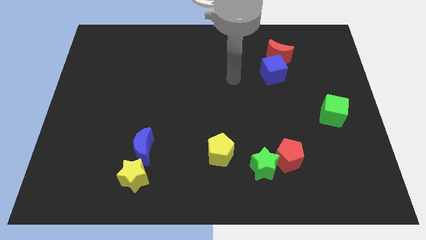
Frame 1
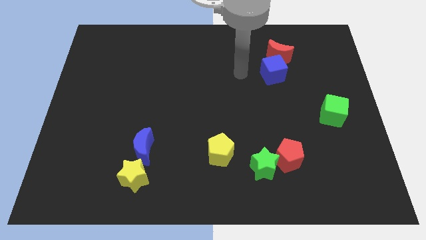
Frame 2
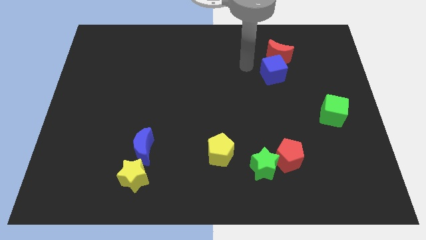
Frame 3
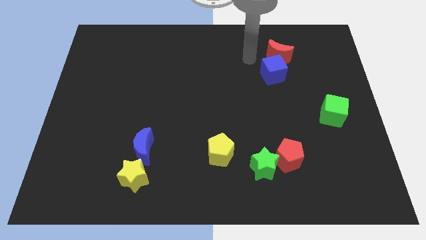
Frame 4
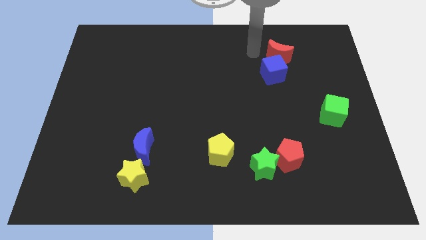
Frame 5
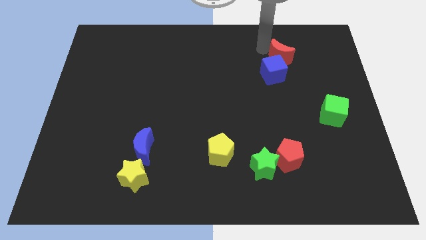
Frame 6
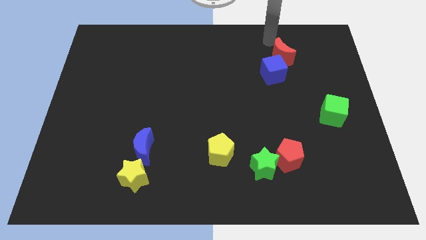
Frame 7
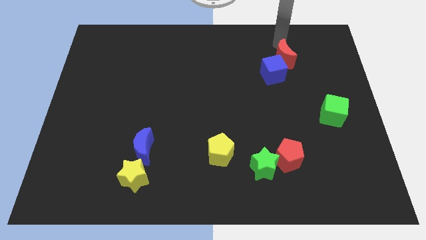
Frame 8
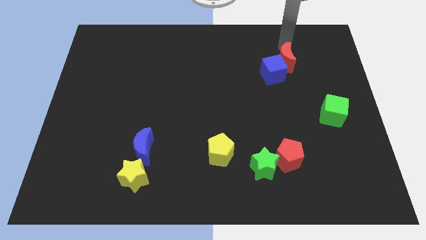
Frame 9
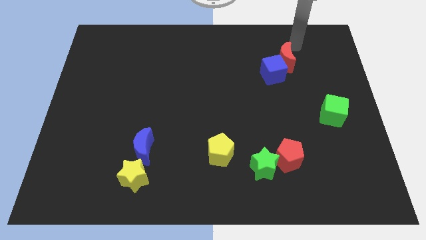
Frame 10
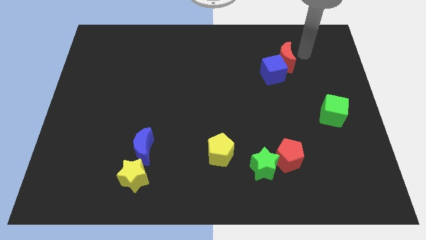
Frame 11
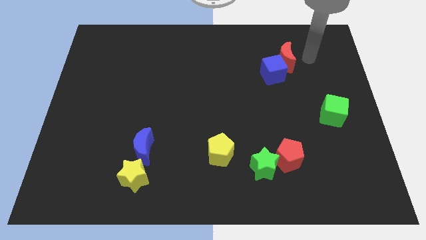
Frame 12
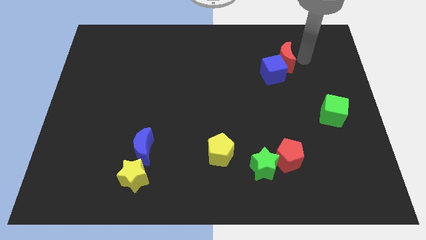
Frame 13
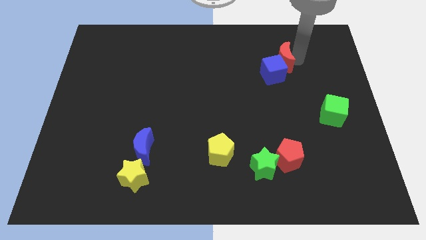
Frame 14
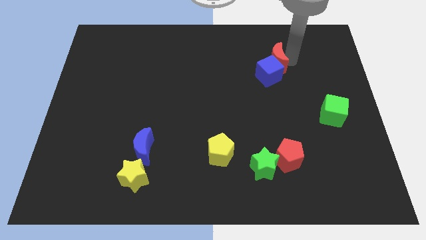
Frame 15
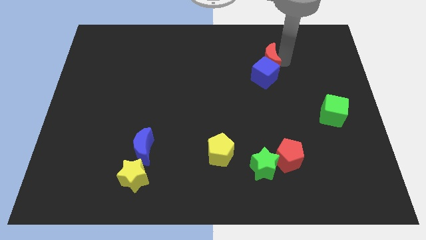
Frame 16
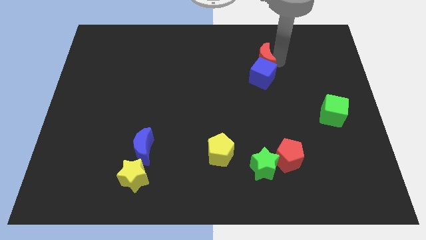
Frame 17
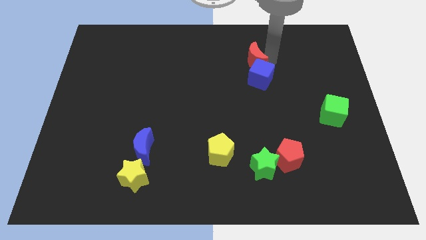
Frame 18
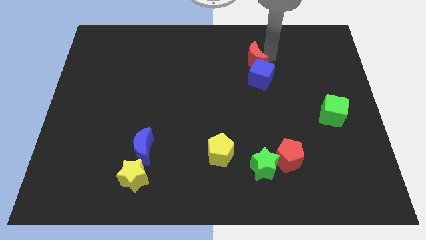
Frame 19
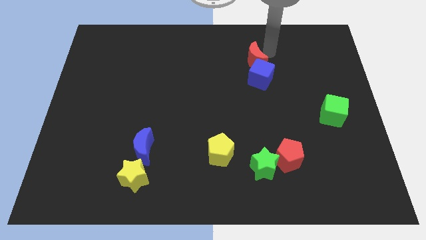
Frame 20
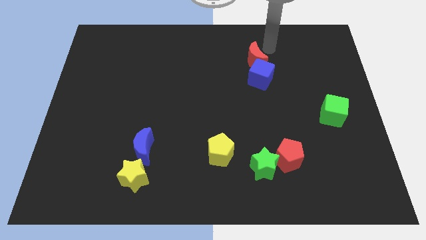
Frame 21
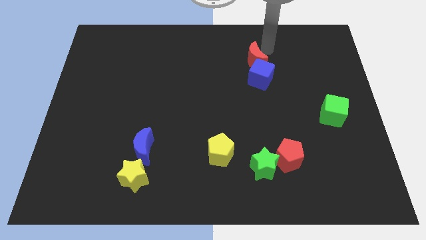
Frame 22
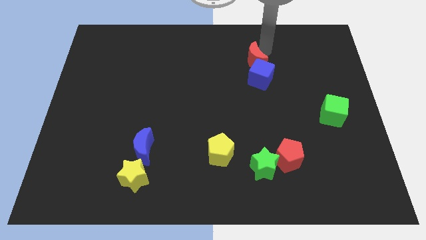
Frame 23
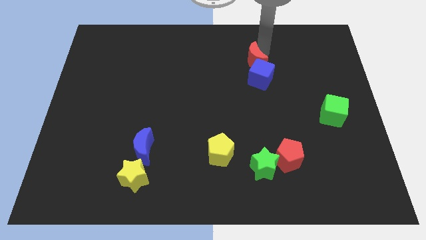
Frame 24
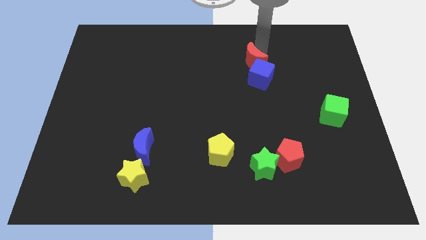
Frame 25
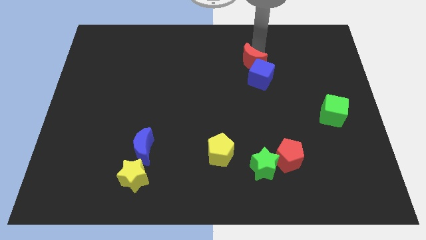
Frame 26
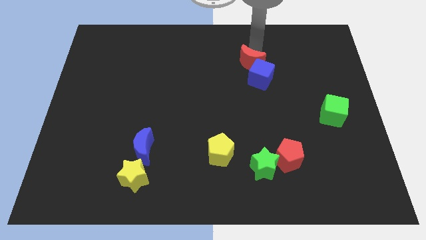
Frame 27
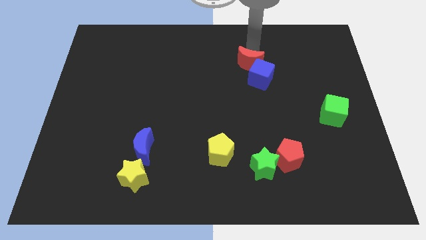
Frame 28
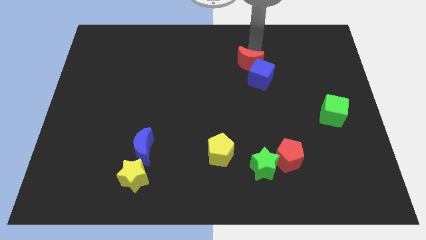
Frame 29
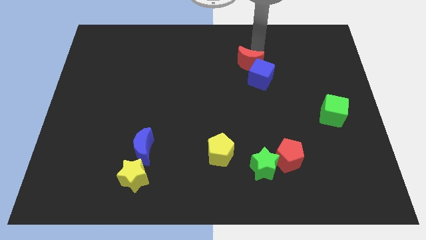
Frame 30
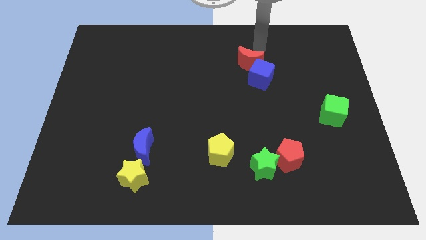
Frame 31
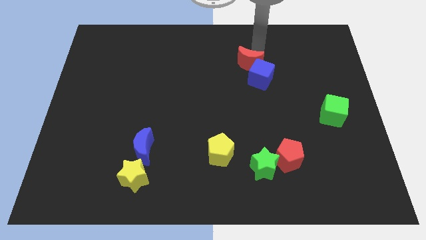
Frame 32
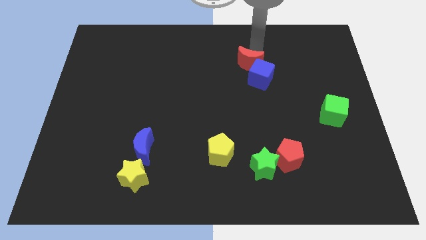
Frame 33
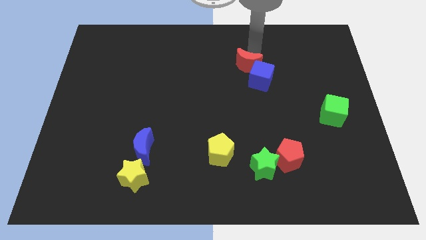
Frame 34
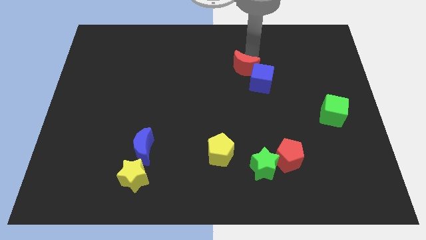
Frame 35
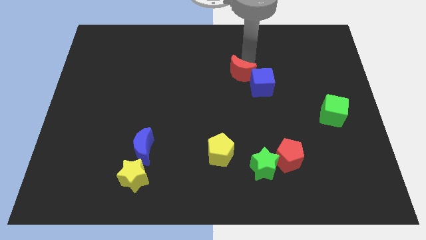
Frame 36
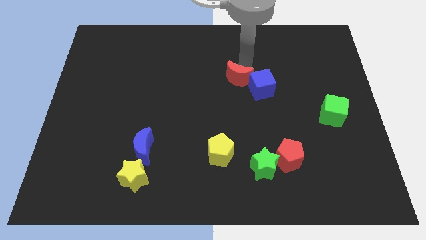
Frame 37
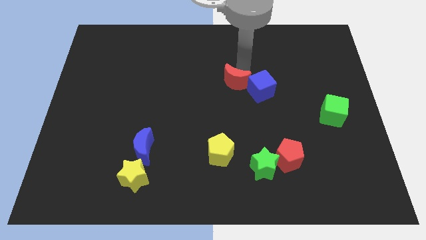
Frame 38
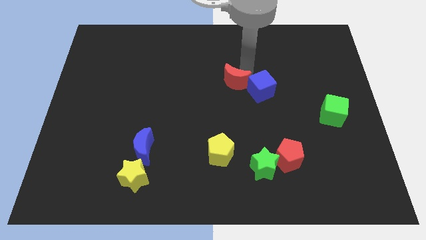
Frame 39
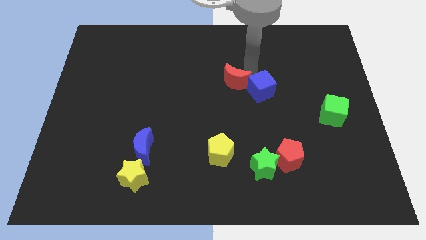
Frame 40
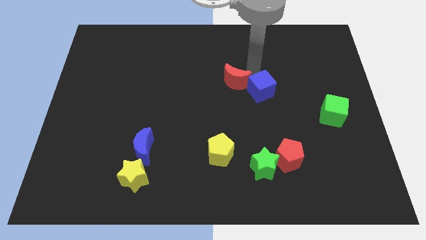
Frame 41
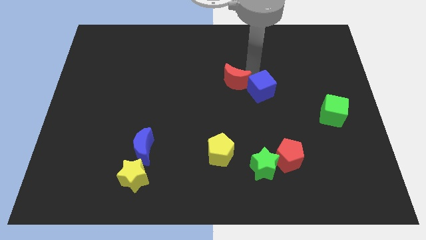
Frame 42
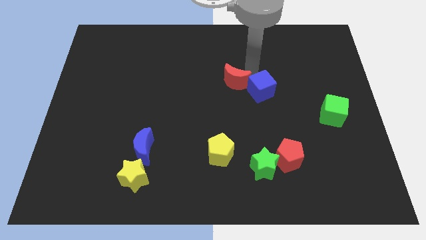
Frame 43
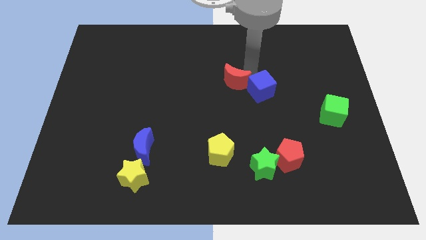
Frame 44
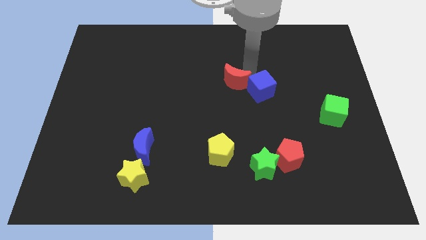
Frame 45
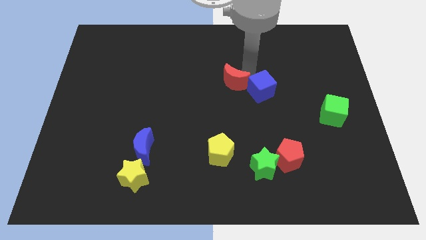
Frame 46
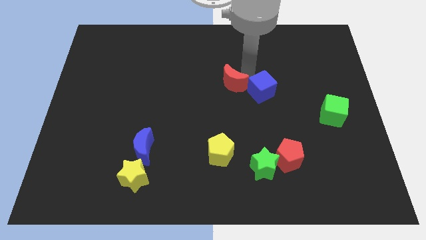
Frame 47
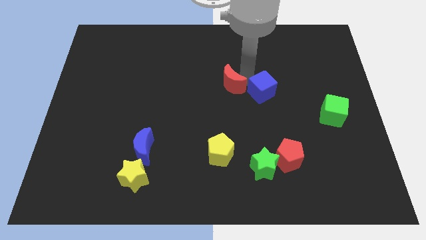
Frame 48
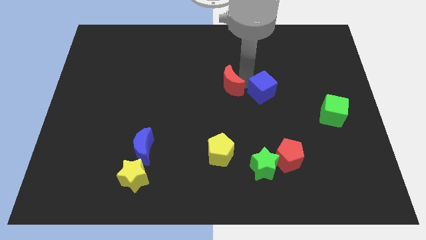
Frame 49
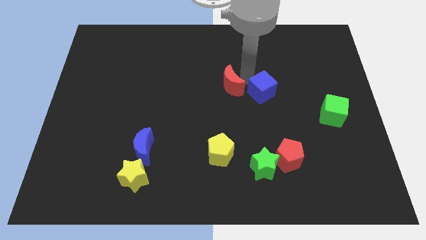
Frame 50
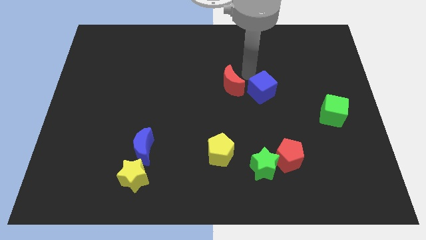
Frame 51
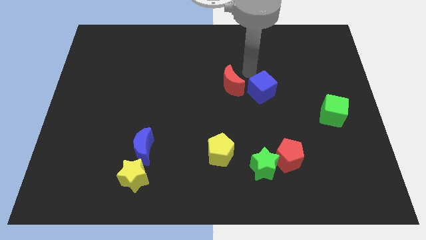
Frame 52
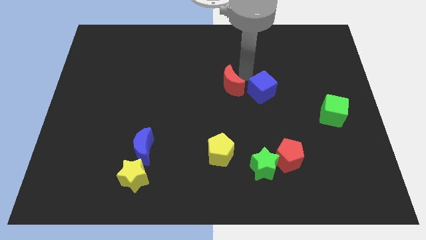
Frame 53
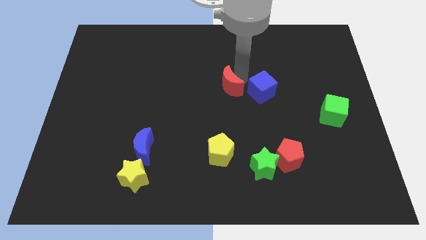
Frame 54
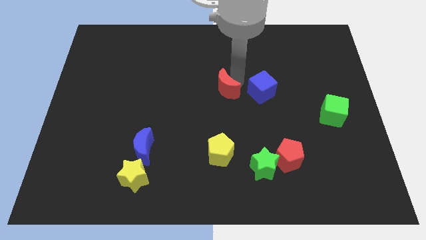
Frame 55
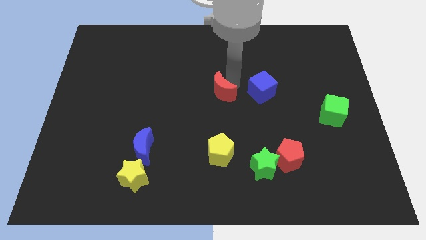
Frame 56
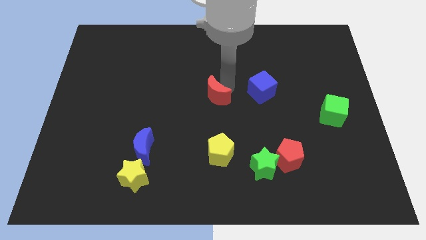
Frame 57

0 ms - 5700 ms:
push the red moon downwards and then left

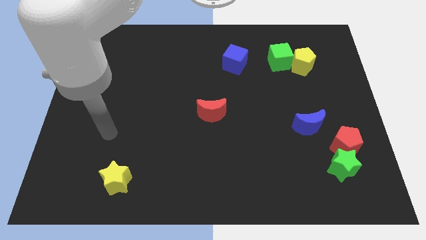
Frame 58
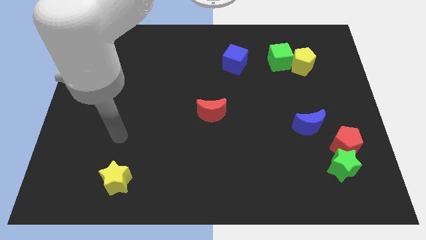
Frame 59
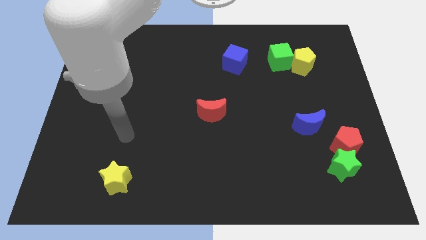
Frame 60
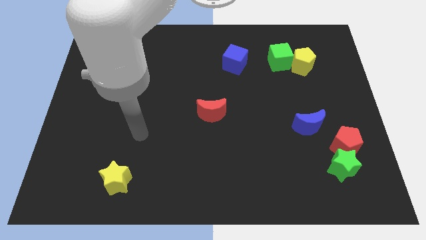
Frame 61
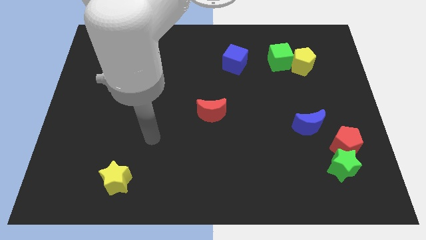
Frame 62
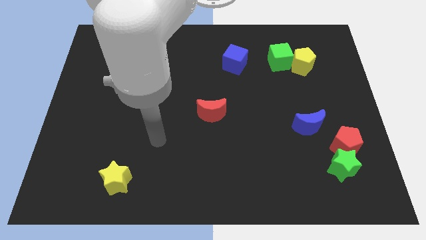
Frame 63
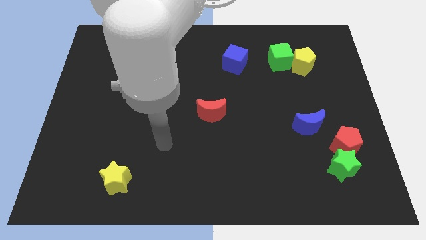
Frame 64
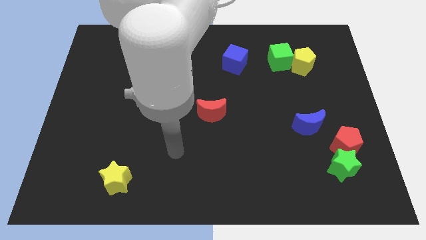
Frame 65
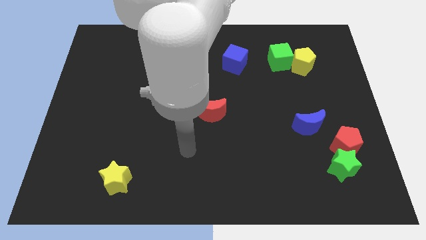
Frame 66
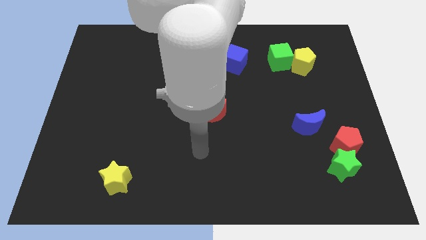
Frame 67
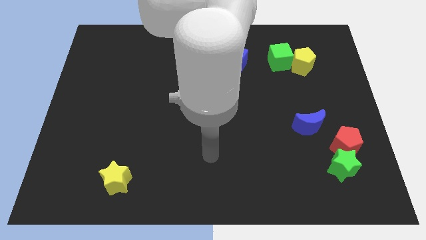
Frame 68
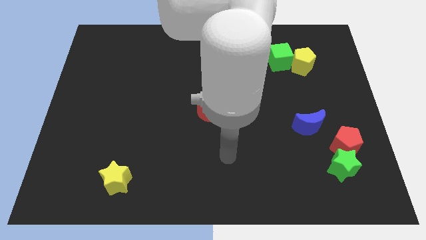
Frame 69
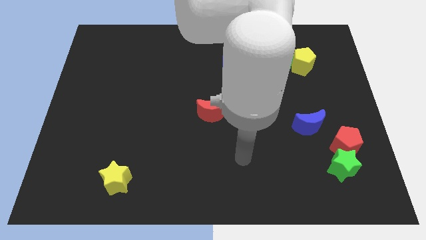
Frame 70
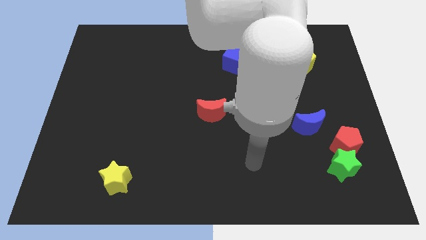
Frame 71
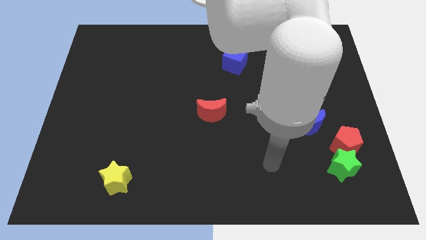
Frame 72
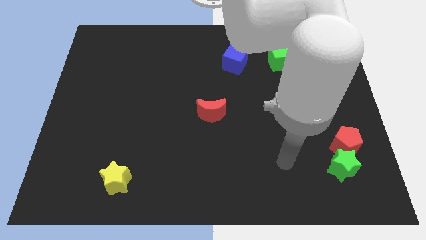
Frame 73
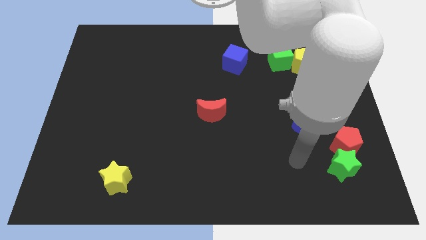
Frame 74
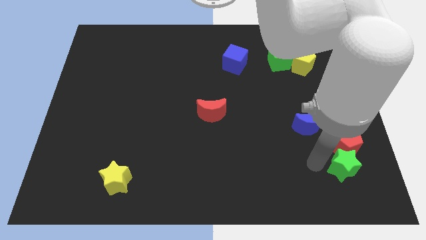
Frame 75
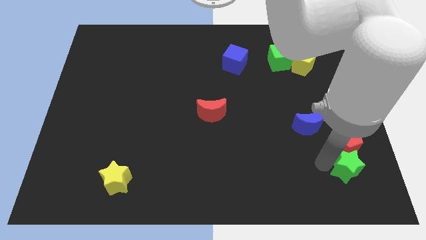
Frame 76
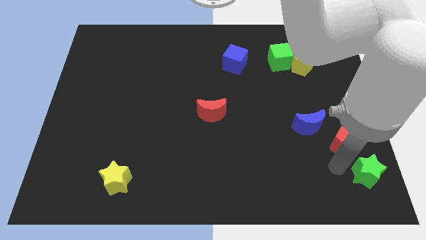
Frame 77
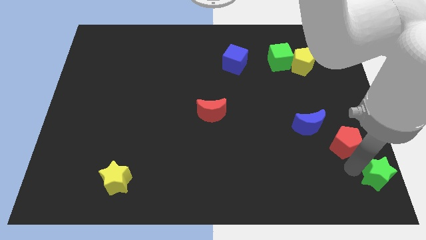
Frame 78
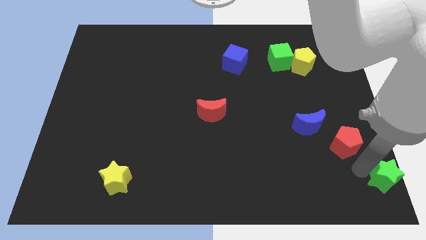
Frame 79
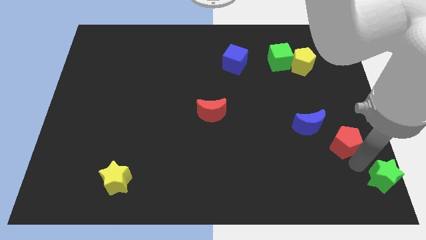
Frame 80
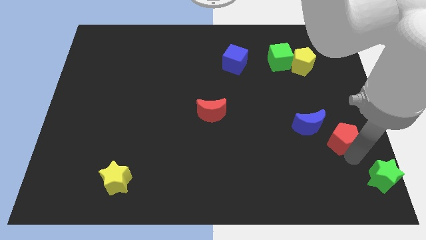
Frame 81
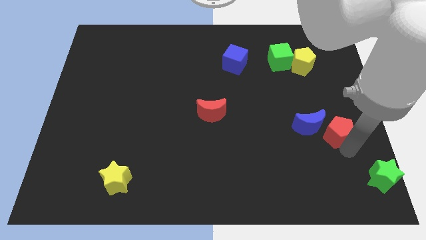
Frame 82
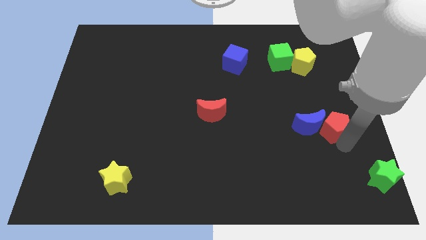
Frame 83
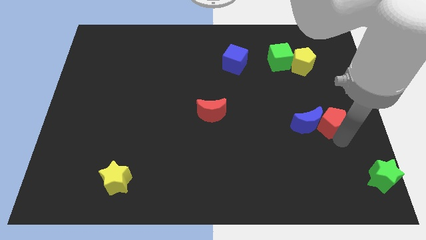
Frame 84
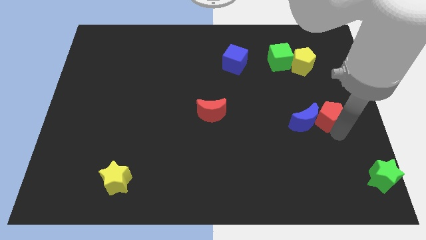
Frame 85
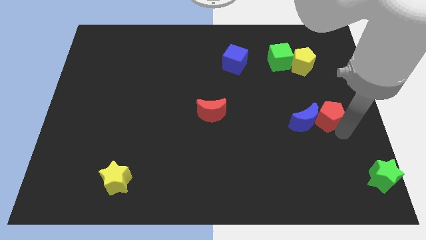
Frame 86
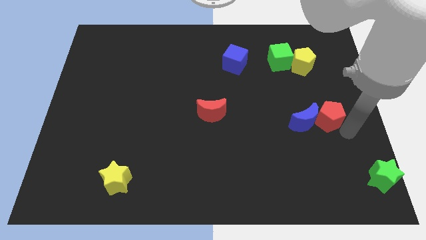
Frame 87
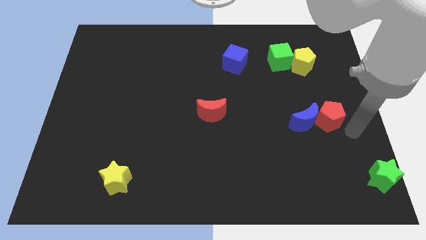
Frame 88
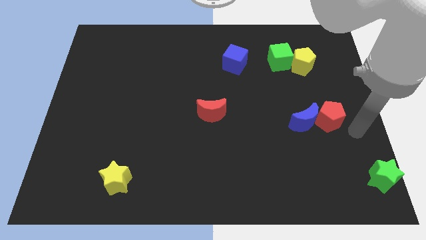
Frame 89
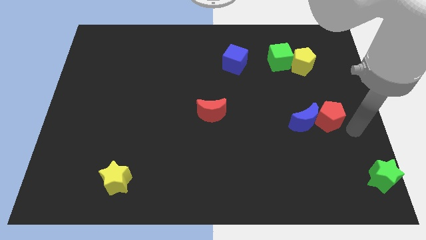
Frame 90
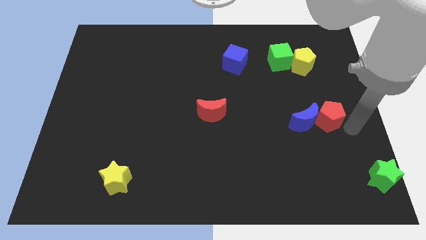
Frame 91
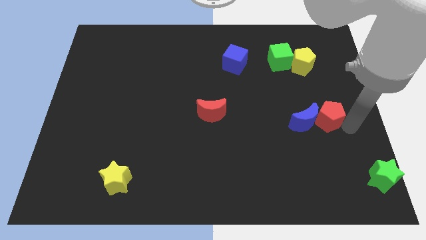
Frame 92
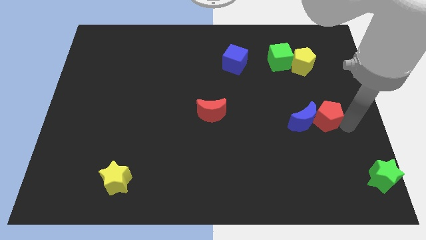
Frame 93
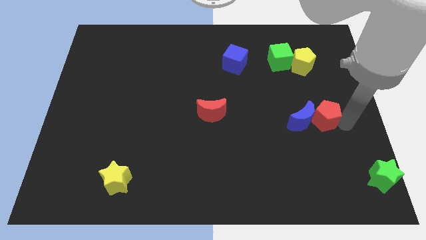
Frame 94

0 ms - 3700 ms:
slide the red pentagon somewhat up and to the left diagonally
